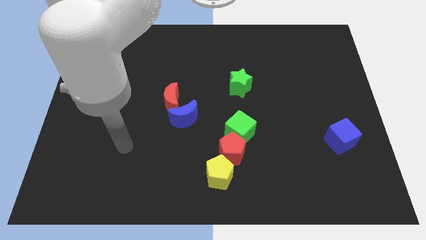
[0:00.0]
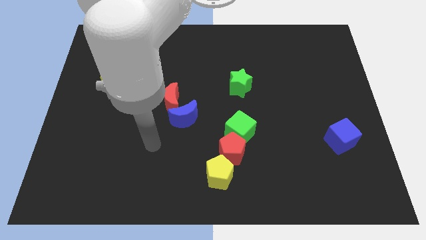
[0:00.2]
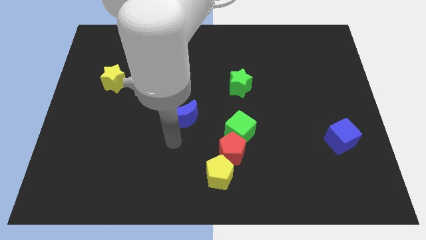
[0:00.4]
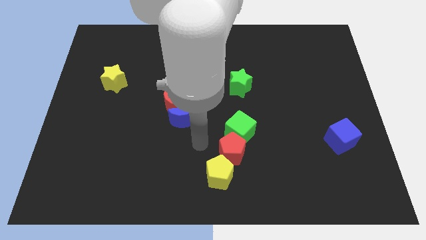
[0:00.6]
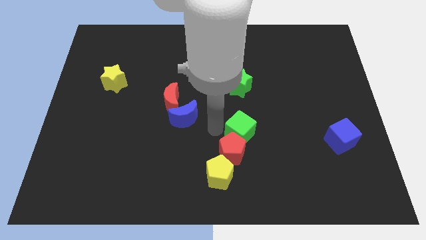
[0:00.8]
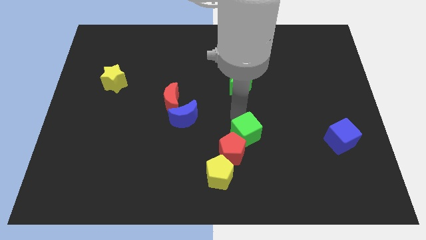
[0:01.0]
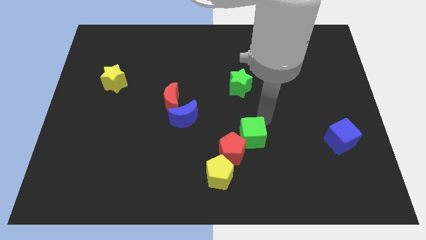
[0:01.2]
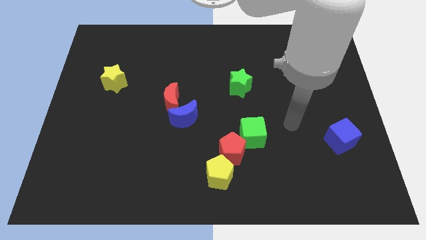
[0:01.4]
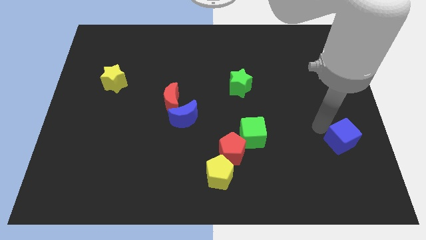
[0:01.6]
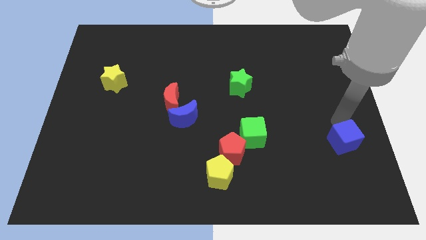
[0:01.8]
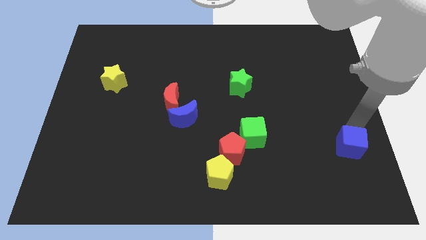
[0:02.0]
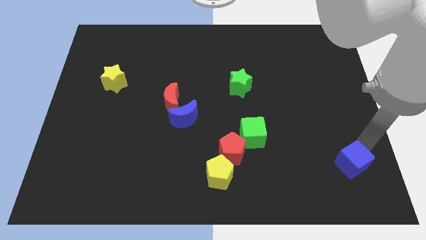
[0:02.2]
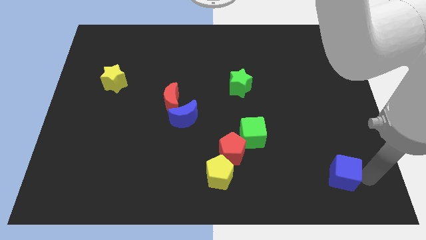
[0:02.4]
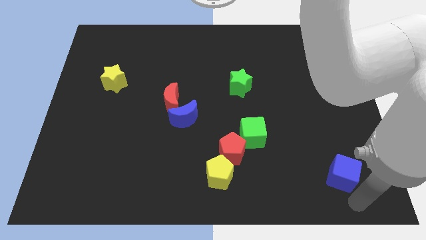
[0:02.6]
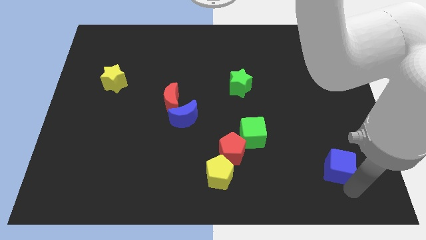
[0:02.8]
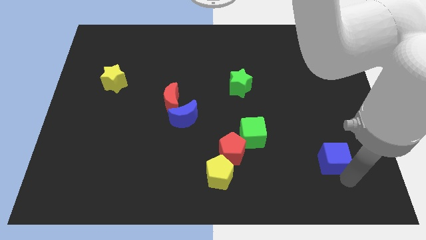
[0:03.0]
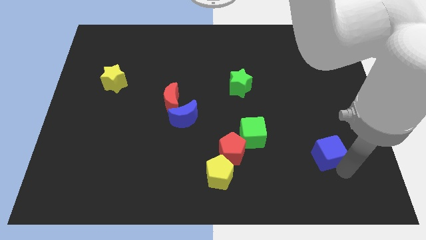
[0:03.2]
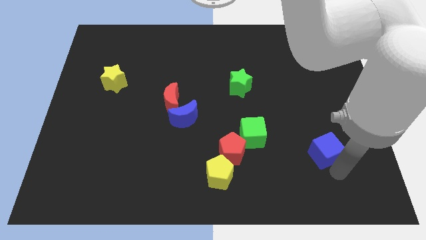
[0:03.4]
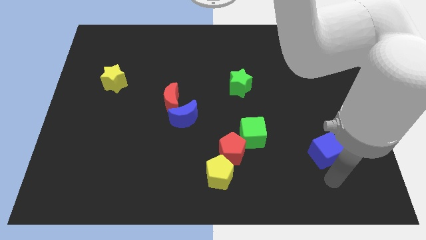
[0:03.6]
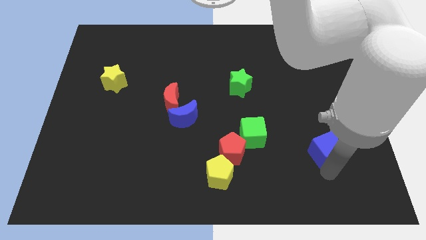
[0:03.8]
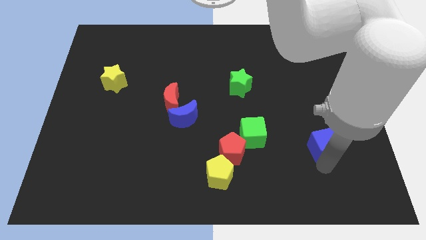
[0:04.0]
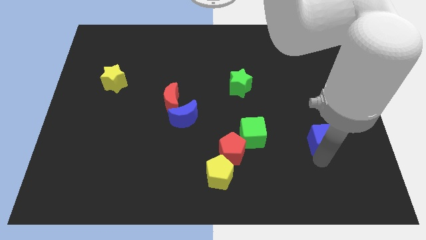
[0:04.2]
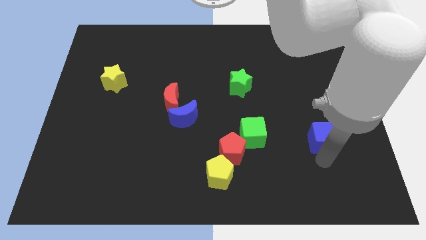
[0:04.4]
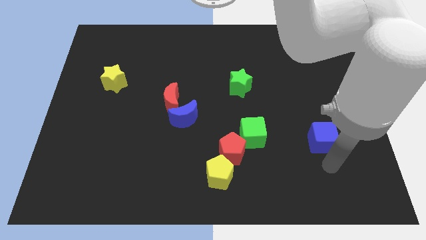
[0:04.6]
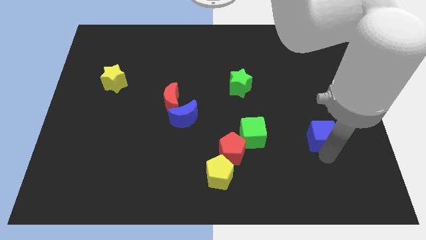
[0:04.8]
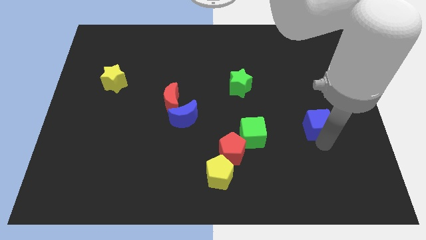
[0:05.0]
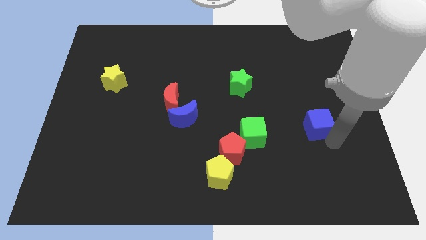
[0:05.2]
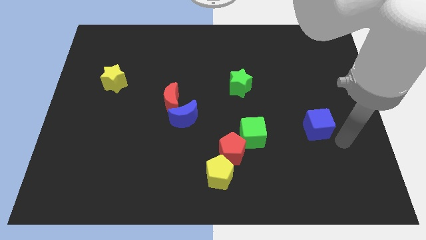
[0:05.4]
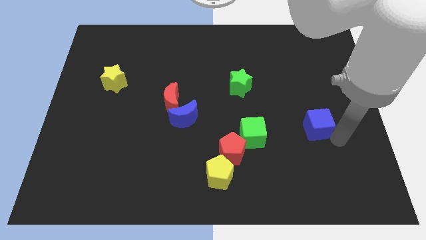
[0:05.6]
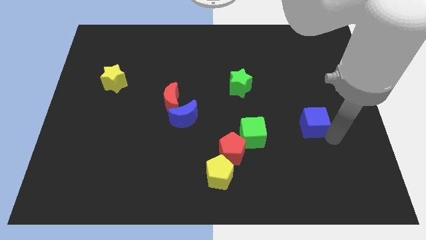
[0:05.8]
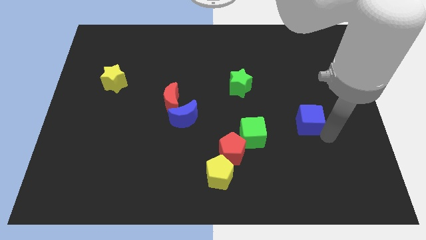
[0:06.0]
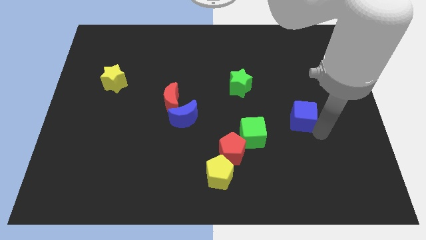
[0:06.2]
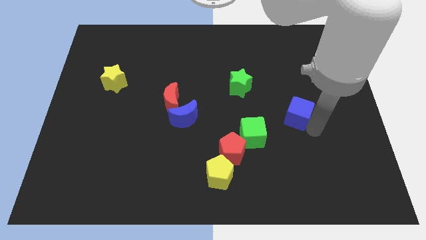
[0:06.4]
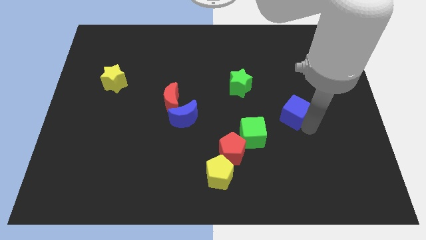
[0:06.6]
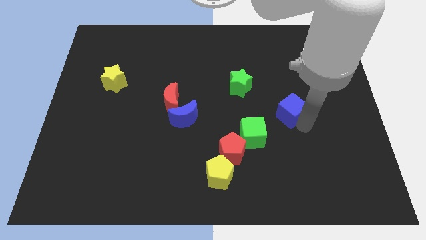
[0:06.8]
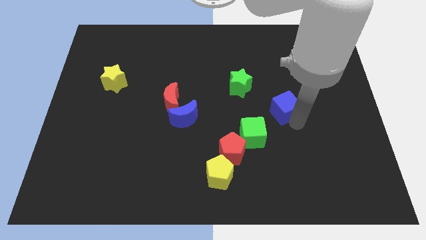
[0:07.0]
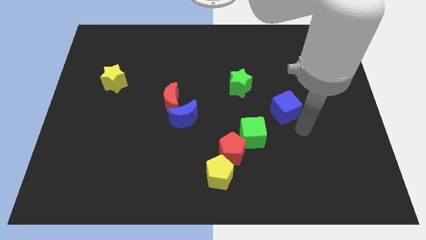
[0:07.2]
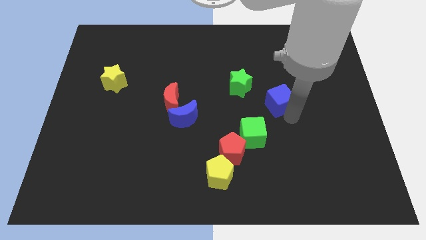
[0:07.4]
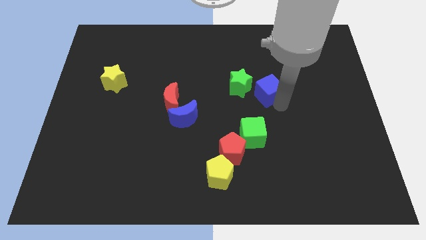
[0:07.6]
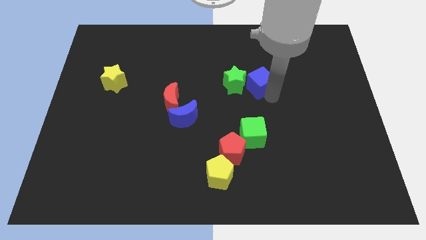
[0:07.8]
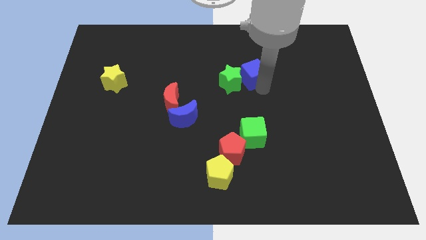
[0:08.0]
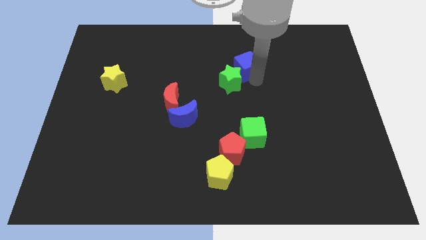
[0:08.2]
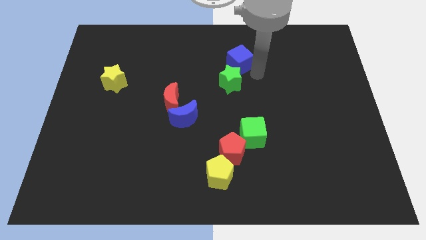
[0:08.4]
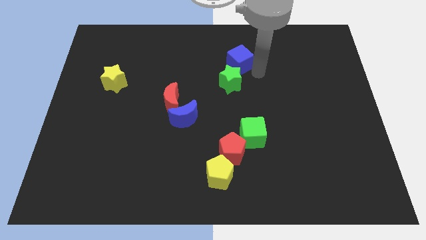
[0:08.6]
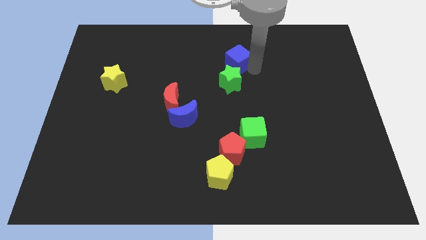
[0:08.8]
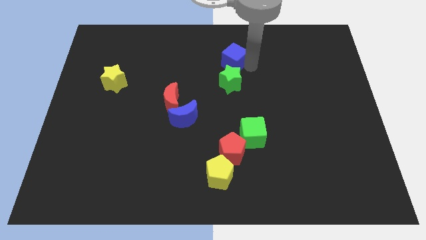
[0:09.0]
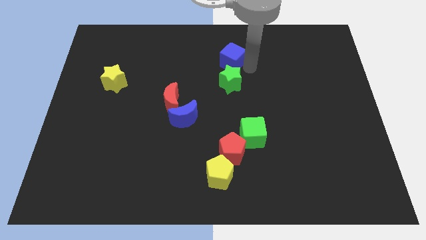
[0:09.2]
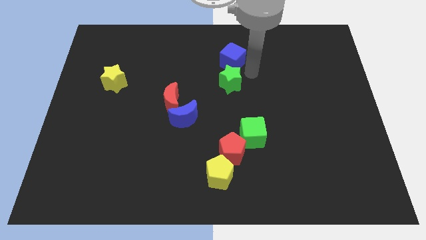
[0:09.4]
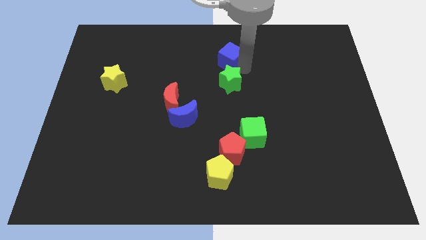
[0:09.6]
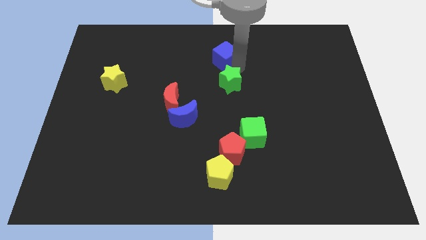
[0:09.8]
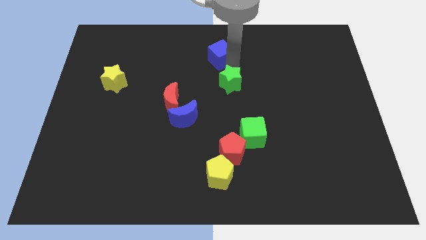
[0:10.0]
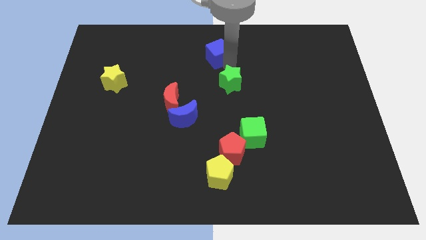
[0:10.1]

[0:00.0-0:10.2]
move the blue cube to the top side

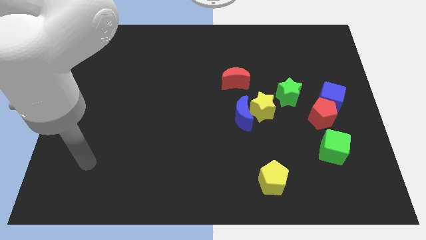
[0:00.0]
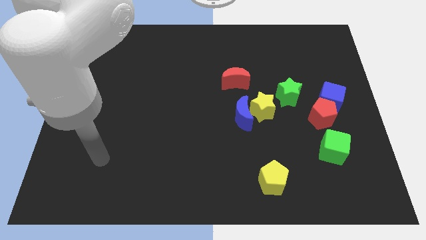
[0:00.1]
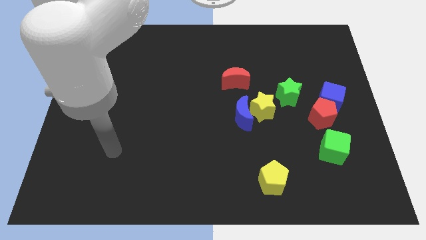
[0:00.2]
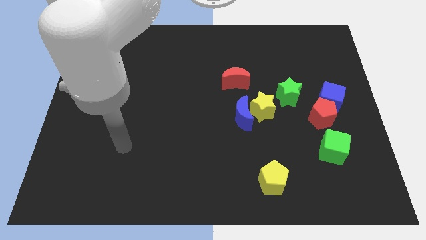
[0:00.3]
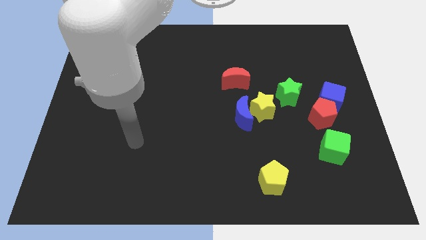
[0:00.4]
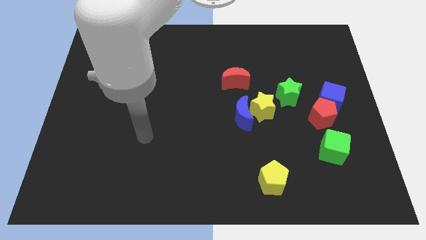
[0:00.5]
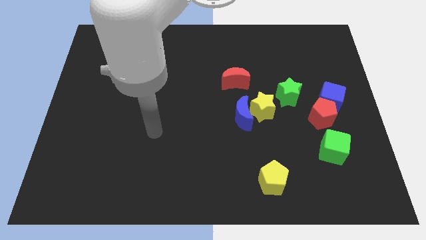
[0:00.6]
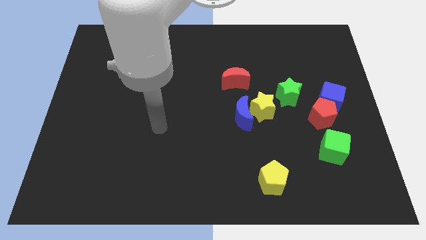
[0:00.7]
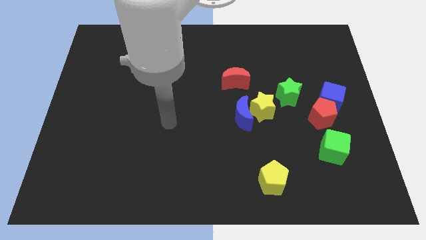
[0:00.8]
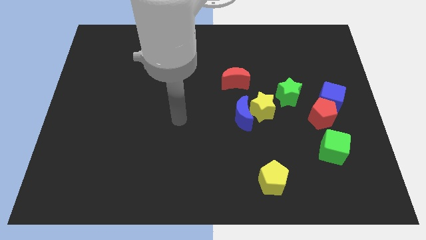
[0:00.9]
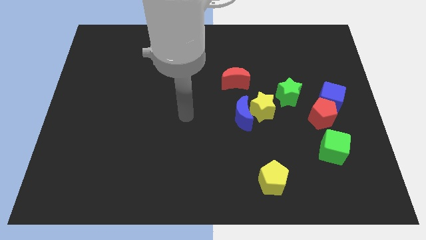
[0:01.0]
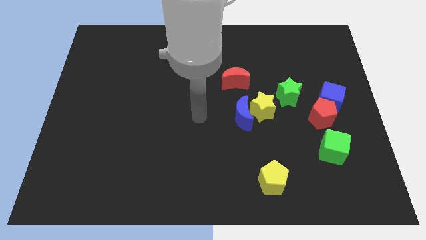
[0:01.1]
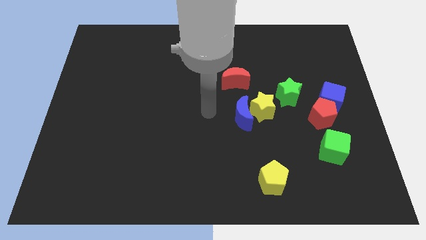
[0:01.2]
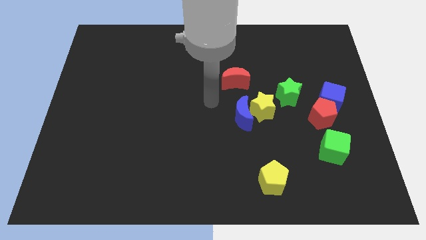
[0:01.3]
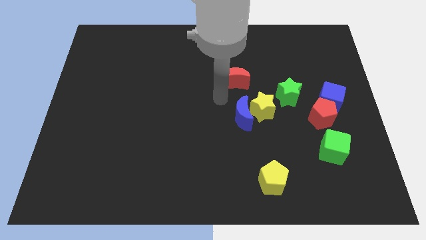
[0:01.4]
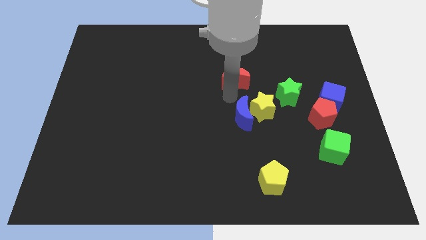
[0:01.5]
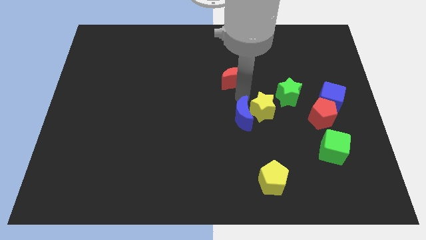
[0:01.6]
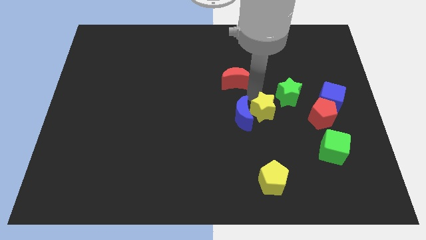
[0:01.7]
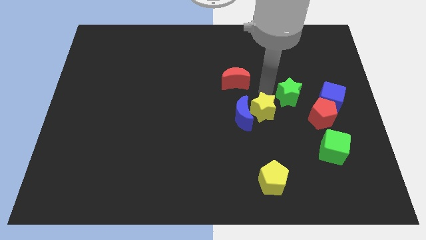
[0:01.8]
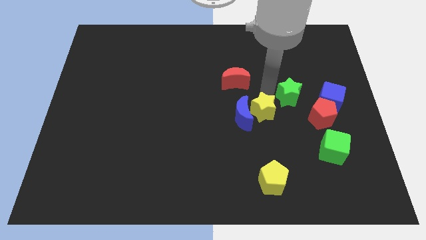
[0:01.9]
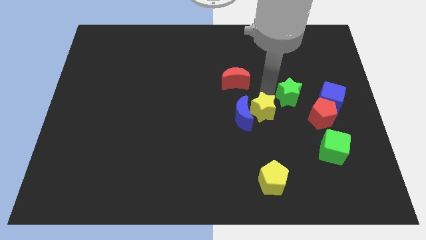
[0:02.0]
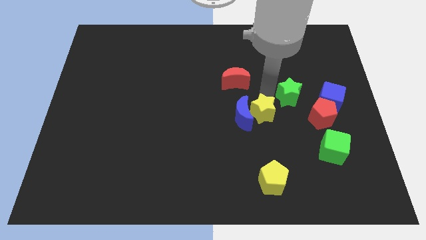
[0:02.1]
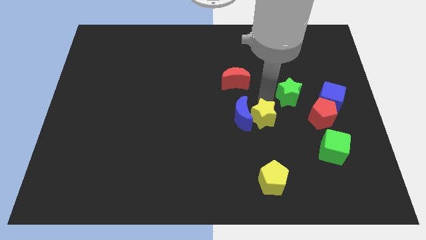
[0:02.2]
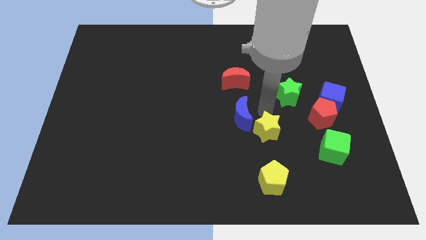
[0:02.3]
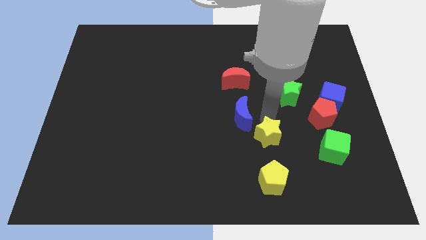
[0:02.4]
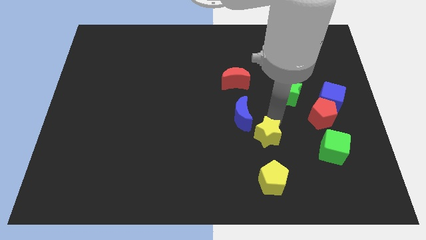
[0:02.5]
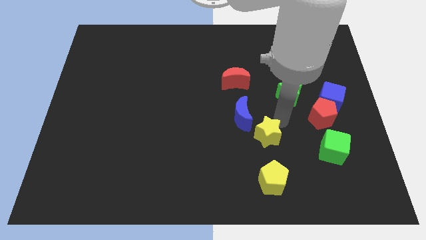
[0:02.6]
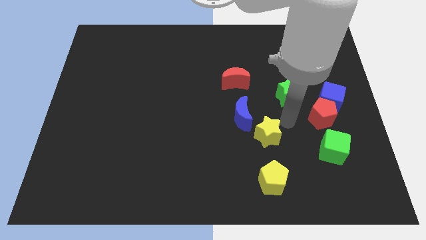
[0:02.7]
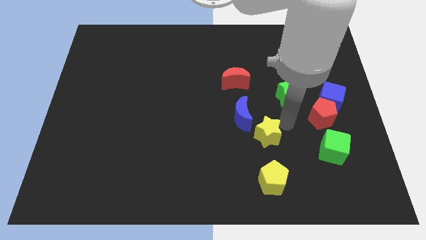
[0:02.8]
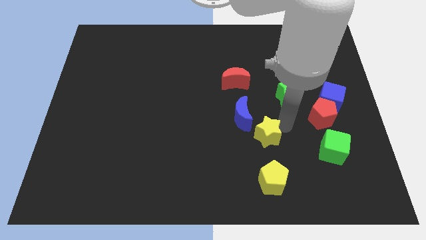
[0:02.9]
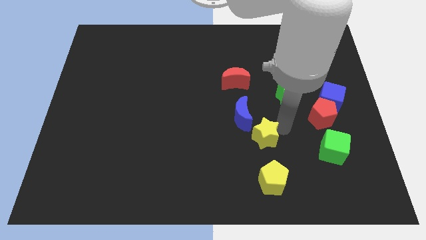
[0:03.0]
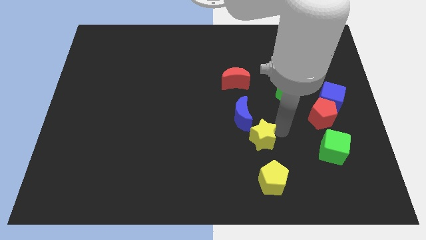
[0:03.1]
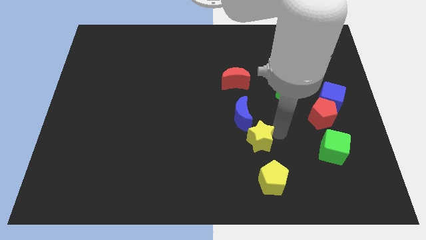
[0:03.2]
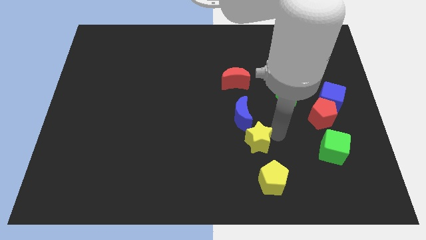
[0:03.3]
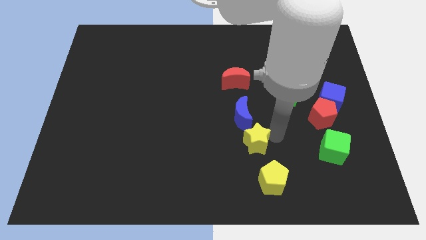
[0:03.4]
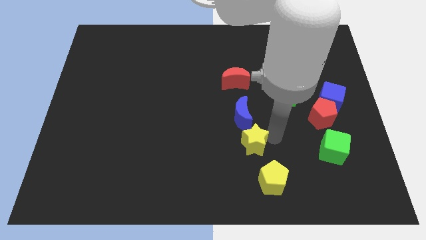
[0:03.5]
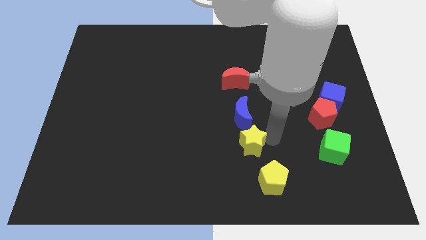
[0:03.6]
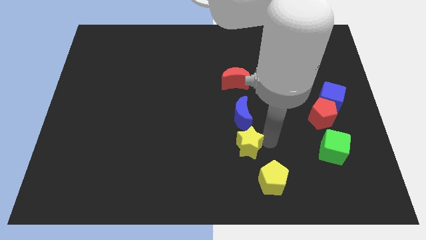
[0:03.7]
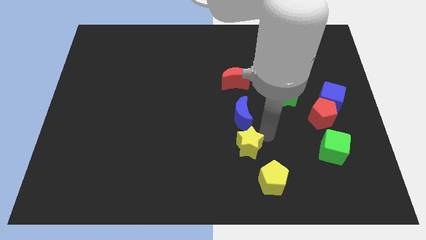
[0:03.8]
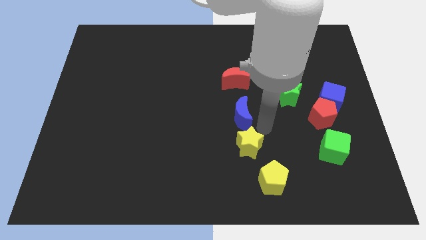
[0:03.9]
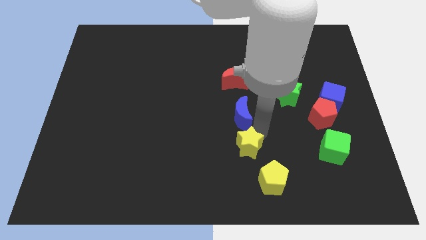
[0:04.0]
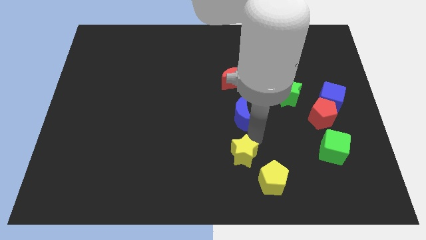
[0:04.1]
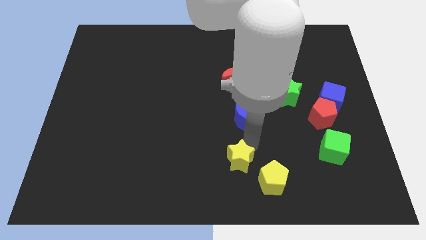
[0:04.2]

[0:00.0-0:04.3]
move the yellow star to the bottom
